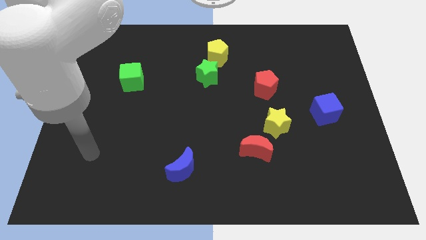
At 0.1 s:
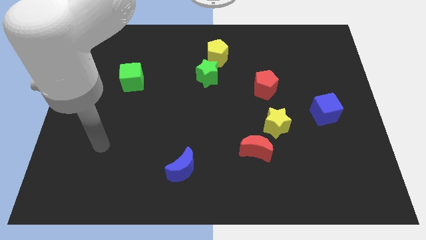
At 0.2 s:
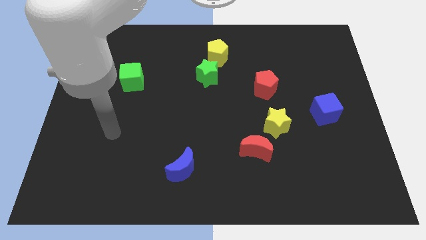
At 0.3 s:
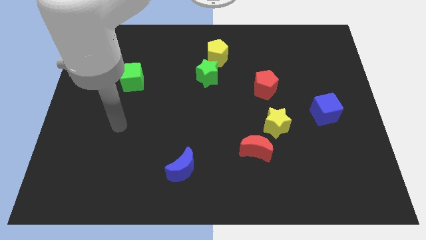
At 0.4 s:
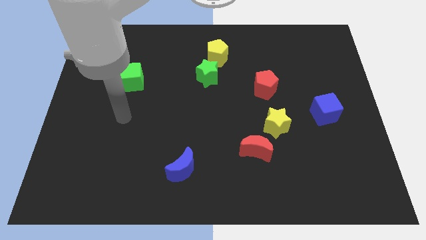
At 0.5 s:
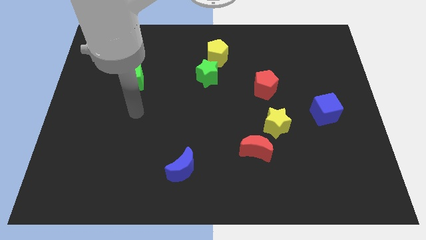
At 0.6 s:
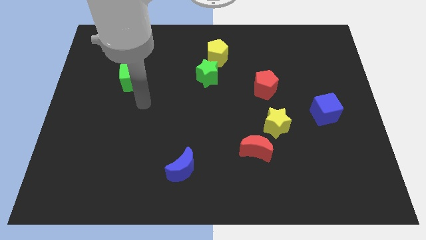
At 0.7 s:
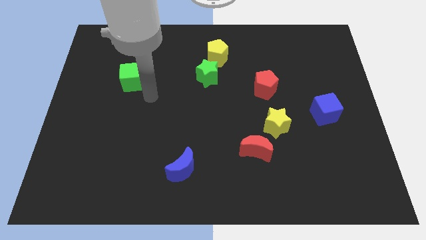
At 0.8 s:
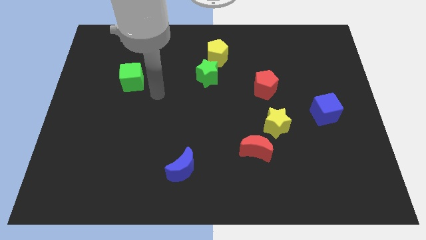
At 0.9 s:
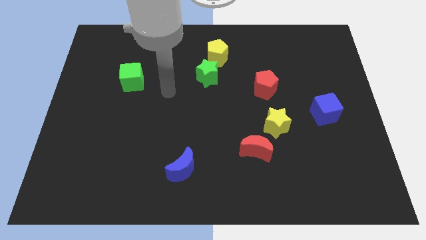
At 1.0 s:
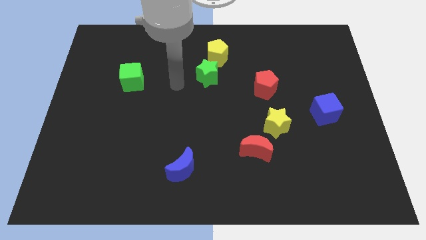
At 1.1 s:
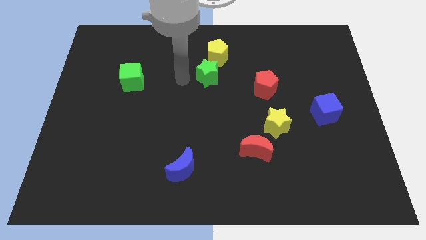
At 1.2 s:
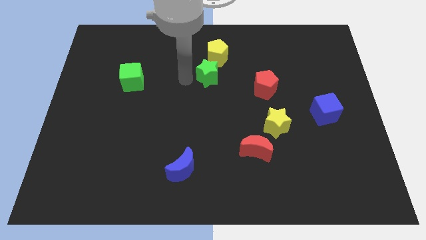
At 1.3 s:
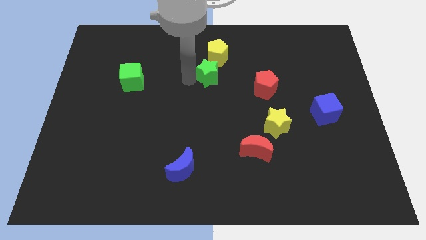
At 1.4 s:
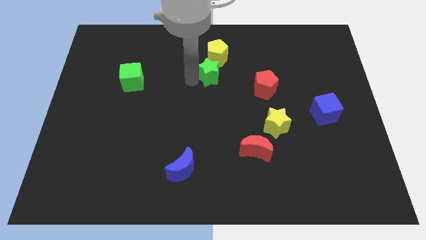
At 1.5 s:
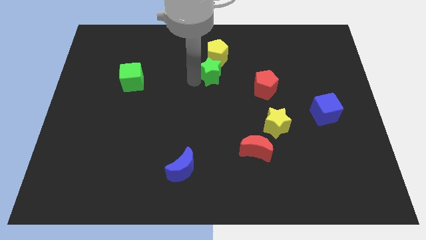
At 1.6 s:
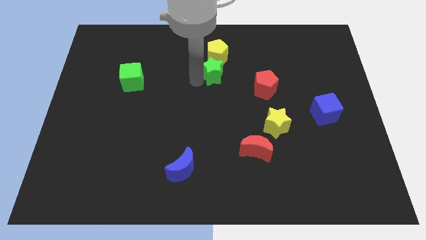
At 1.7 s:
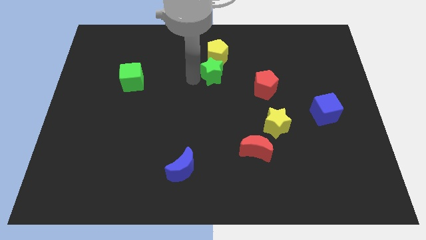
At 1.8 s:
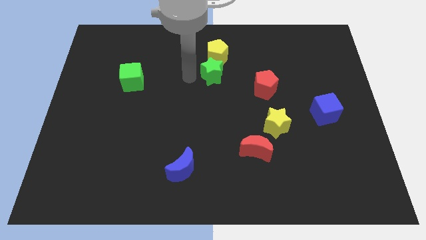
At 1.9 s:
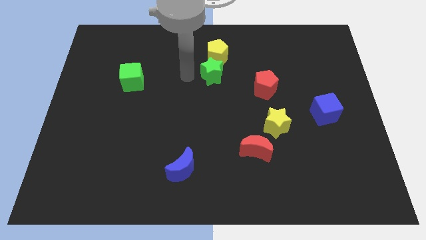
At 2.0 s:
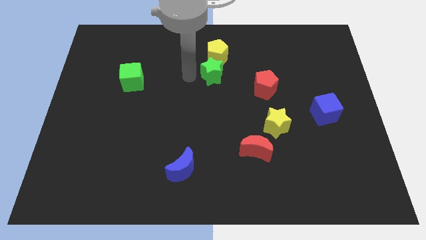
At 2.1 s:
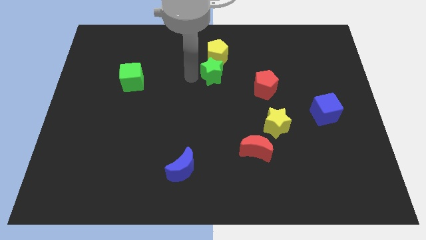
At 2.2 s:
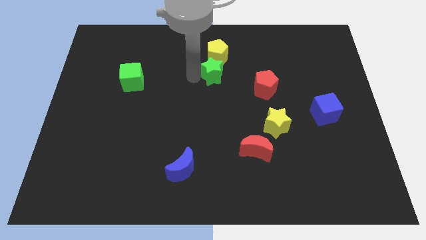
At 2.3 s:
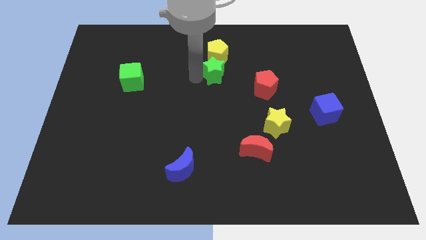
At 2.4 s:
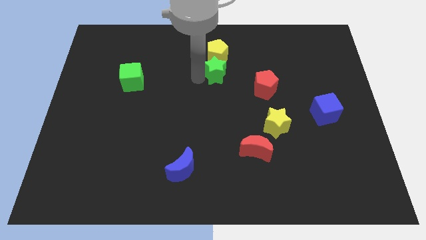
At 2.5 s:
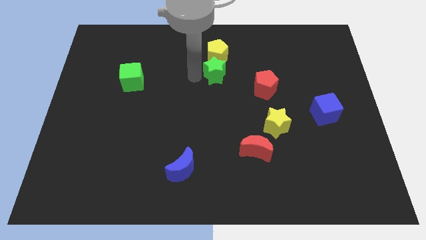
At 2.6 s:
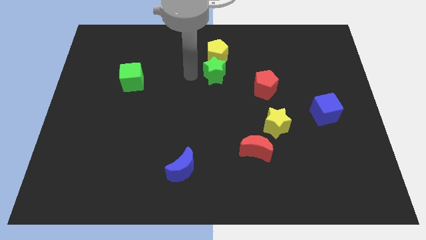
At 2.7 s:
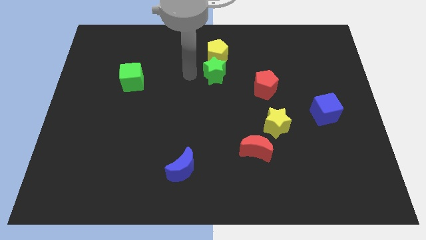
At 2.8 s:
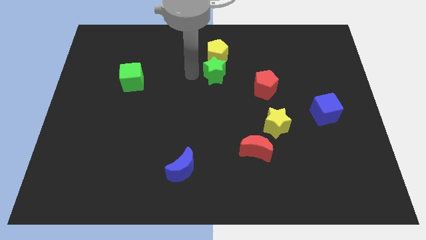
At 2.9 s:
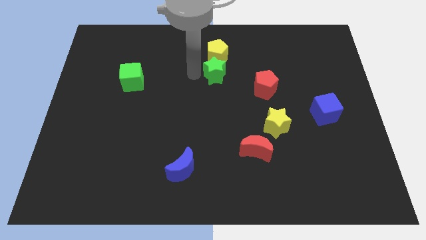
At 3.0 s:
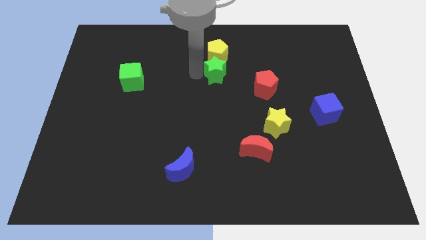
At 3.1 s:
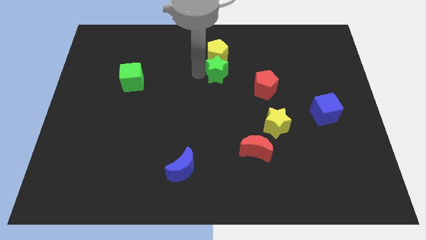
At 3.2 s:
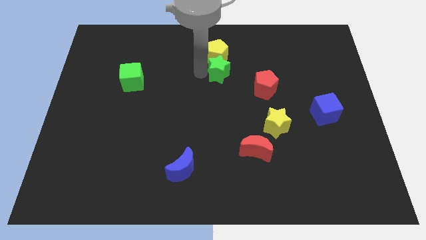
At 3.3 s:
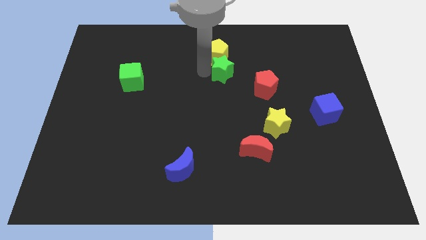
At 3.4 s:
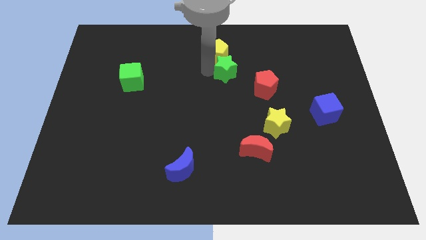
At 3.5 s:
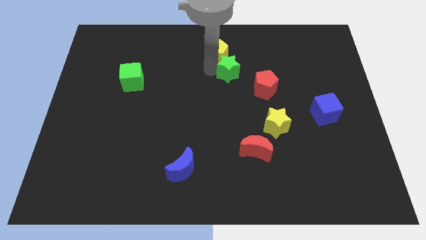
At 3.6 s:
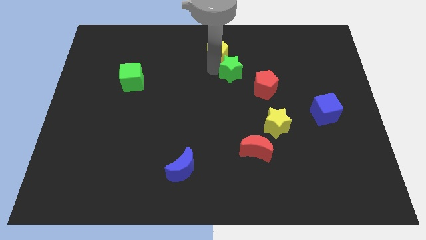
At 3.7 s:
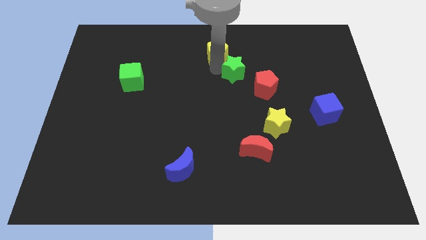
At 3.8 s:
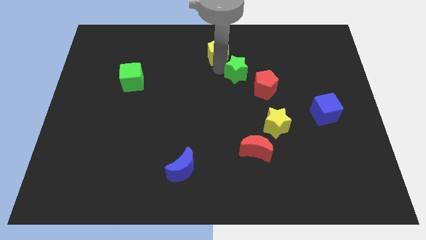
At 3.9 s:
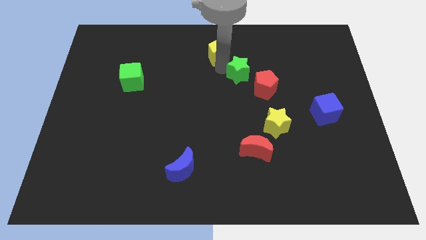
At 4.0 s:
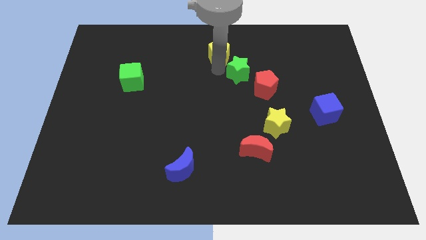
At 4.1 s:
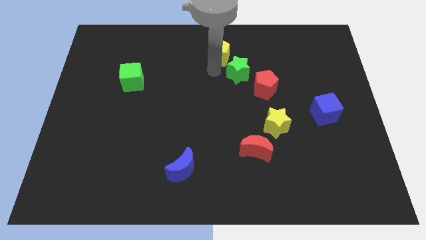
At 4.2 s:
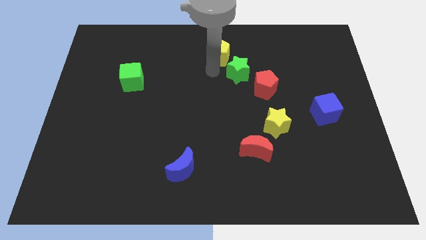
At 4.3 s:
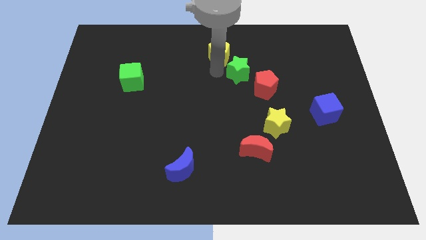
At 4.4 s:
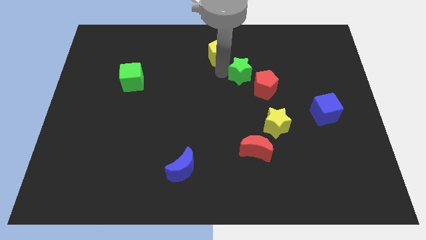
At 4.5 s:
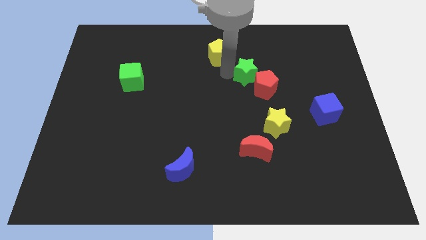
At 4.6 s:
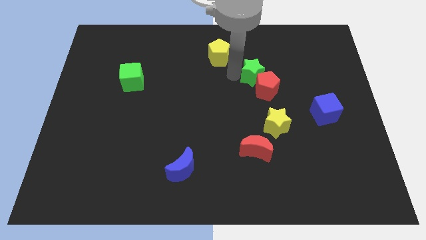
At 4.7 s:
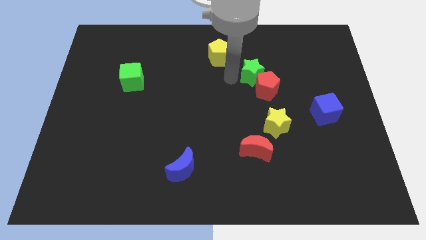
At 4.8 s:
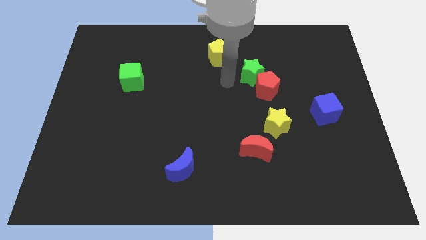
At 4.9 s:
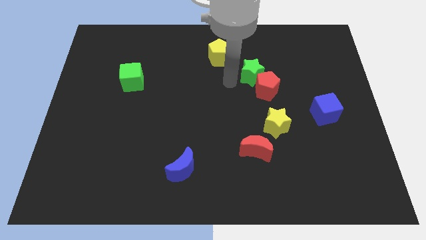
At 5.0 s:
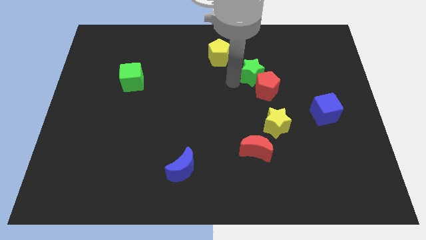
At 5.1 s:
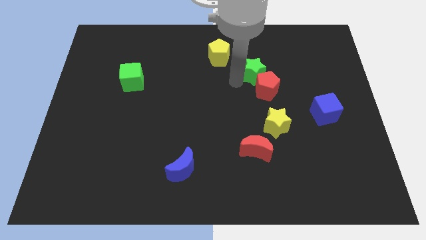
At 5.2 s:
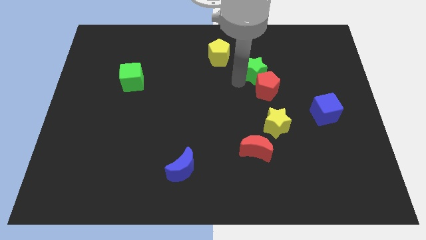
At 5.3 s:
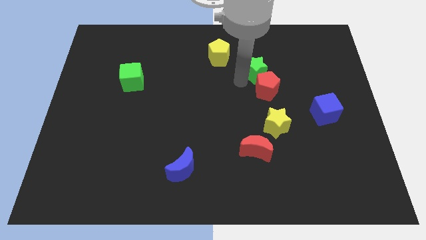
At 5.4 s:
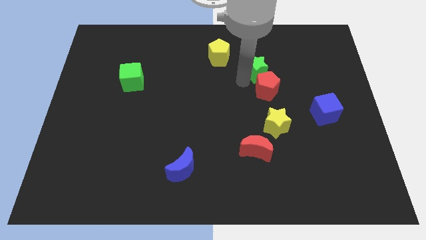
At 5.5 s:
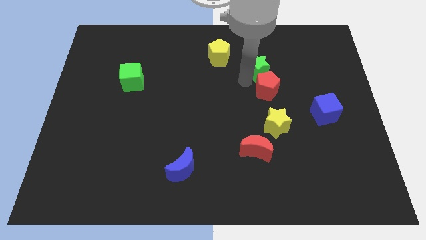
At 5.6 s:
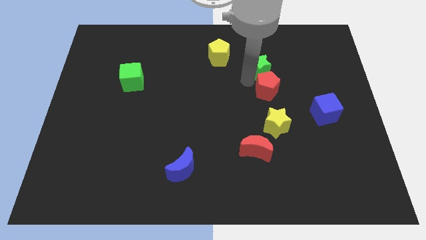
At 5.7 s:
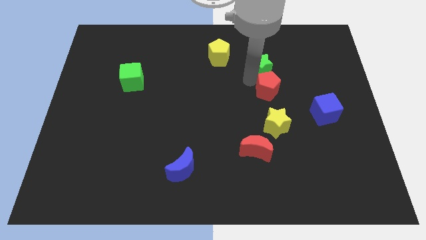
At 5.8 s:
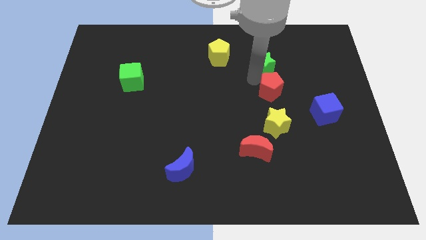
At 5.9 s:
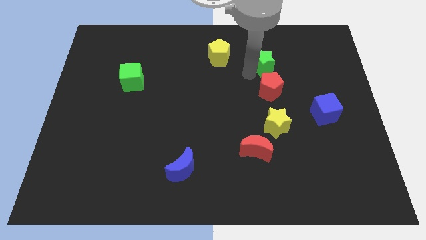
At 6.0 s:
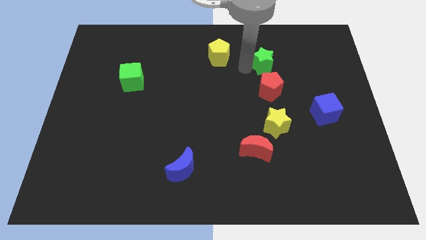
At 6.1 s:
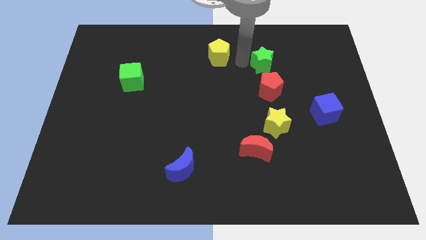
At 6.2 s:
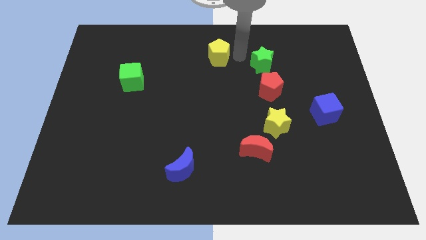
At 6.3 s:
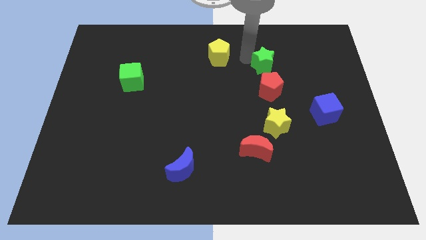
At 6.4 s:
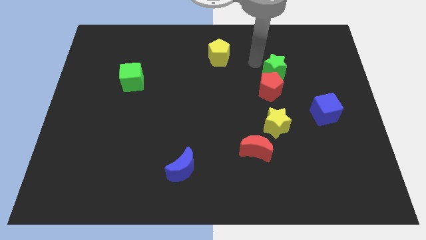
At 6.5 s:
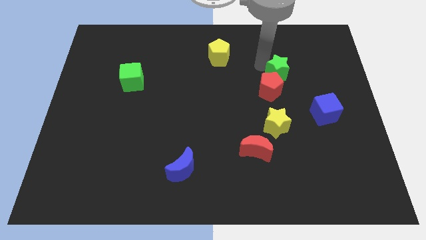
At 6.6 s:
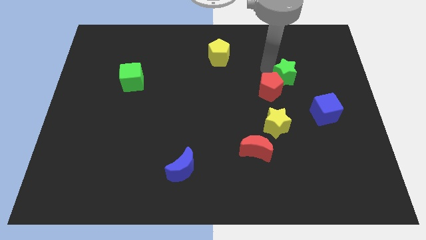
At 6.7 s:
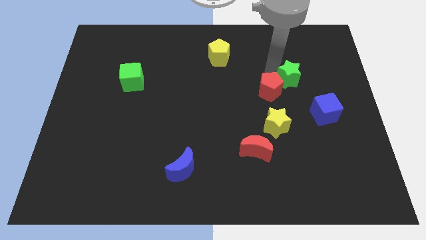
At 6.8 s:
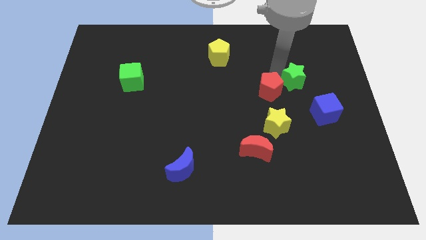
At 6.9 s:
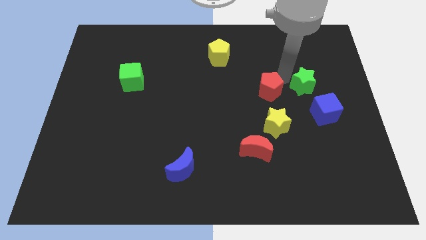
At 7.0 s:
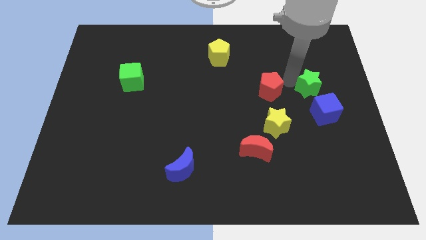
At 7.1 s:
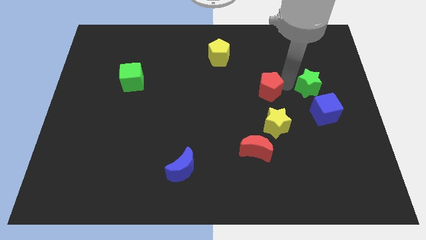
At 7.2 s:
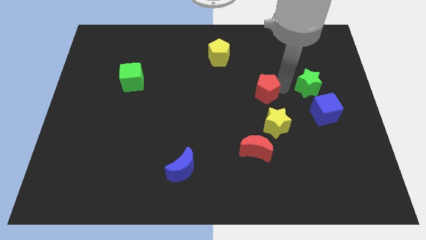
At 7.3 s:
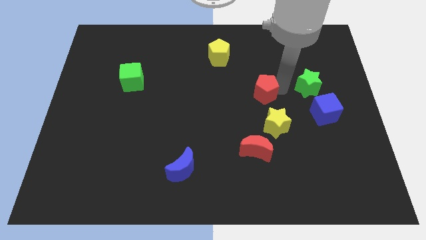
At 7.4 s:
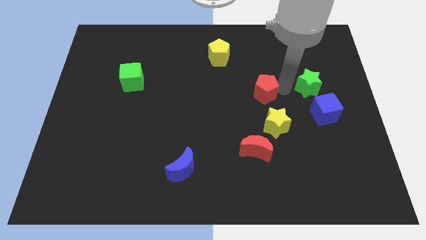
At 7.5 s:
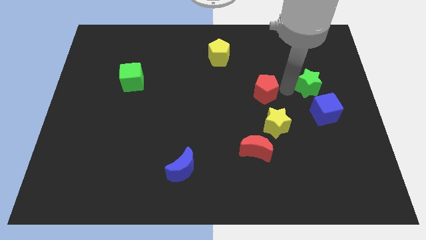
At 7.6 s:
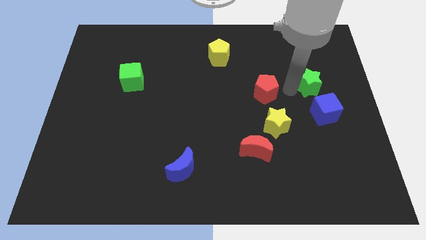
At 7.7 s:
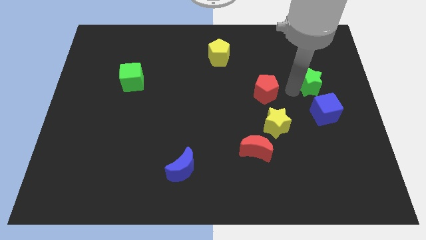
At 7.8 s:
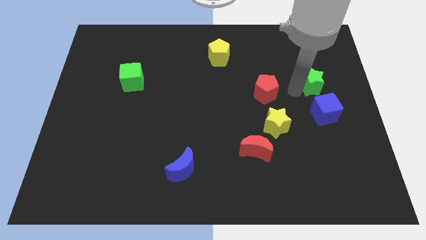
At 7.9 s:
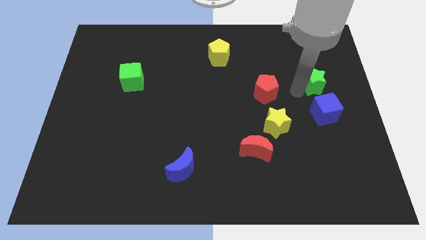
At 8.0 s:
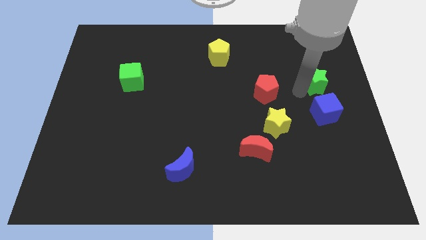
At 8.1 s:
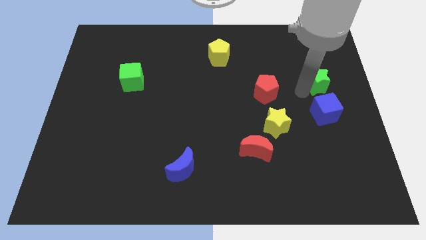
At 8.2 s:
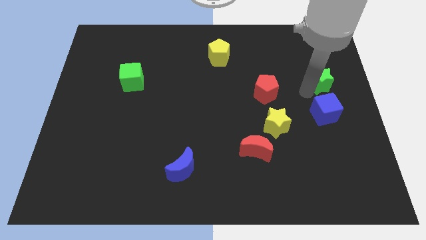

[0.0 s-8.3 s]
move the green star to the right side
